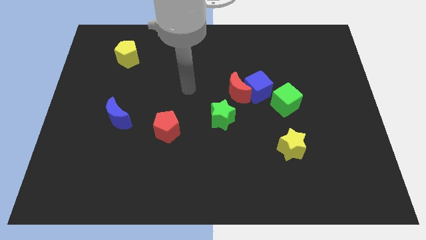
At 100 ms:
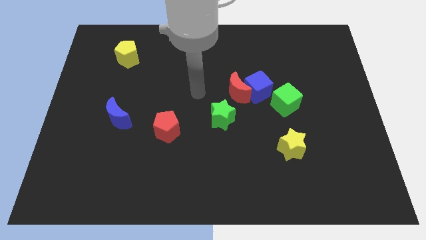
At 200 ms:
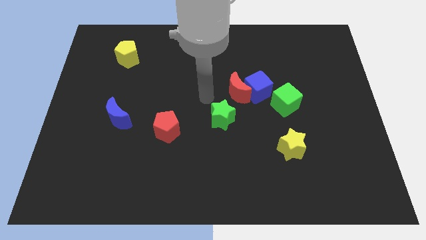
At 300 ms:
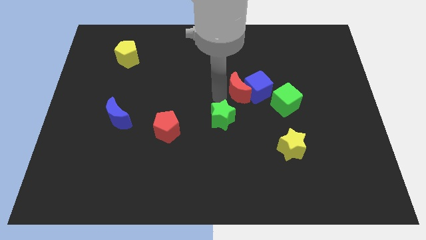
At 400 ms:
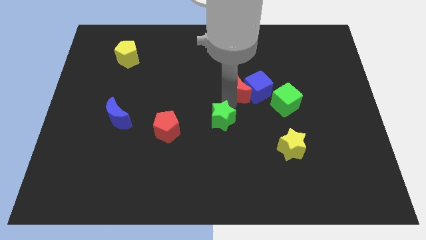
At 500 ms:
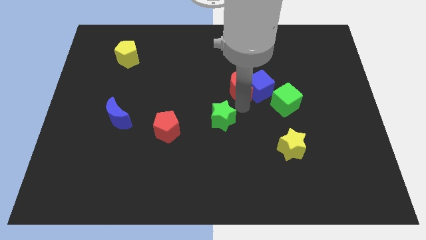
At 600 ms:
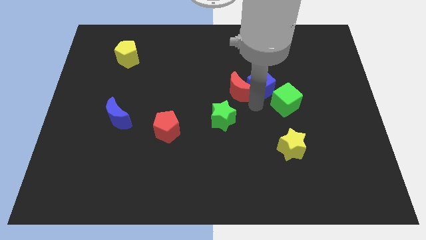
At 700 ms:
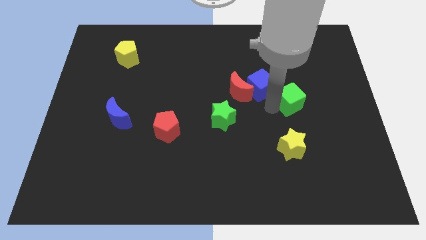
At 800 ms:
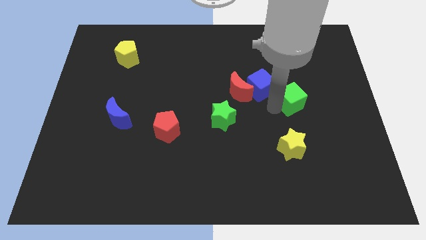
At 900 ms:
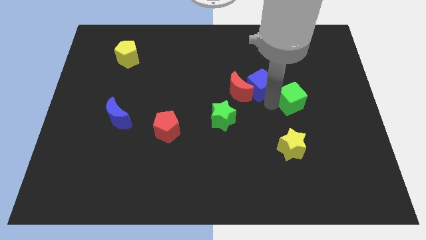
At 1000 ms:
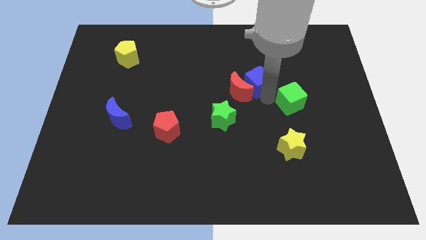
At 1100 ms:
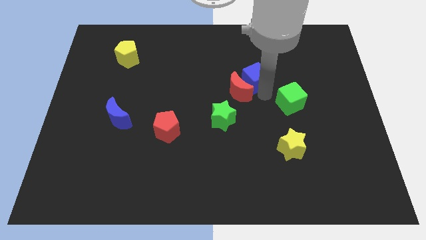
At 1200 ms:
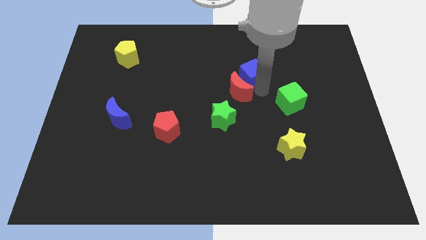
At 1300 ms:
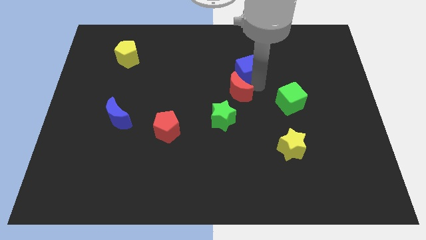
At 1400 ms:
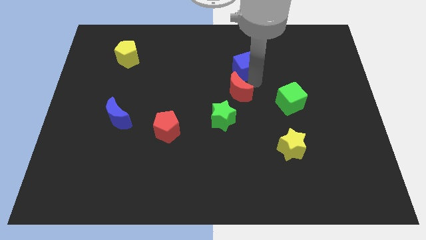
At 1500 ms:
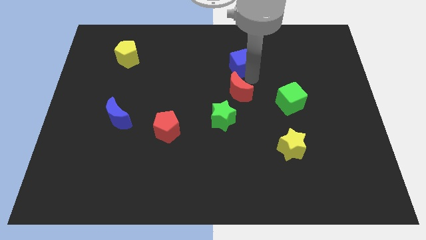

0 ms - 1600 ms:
move the blue cube away from the red moon and green cube

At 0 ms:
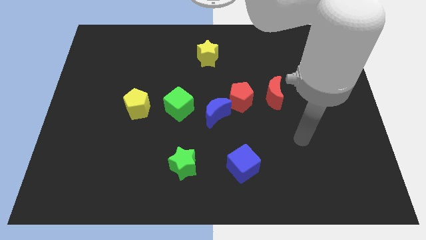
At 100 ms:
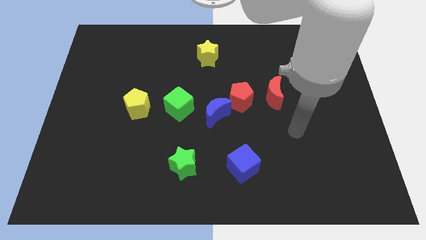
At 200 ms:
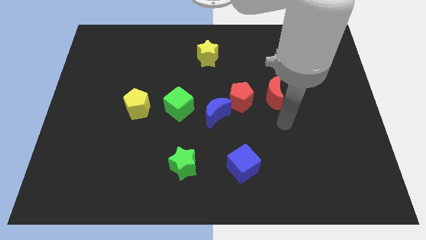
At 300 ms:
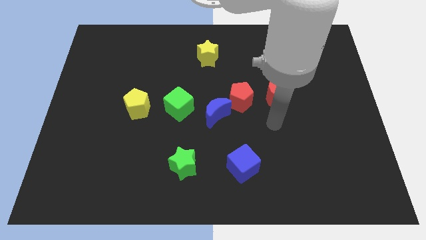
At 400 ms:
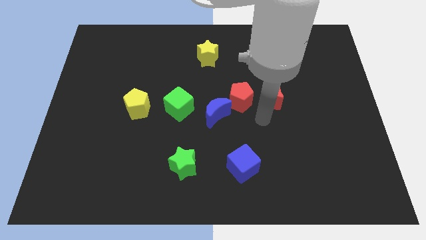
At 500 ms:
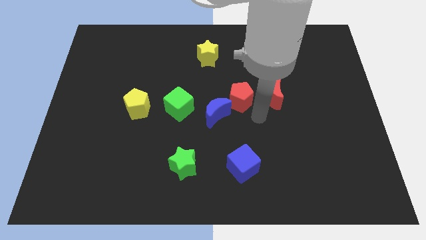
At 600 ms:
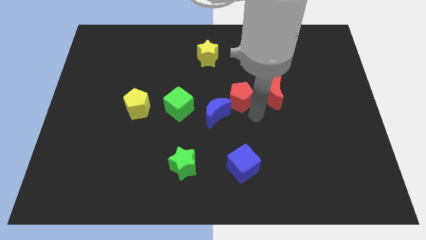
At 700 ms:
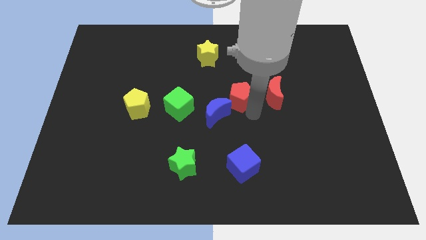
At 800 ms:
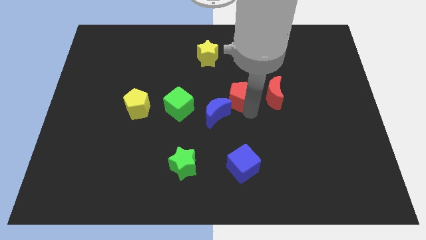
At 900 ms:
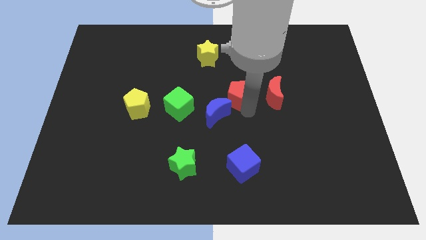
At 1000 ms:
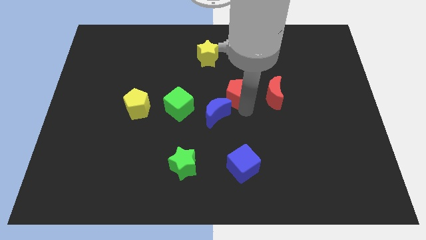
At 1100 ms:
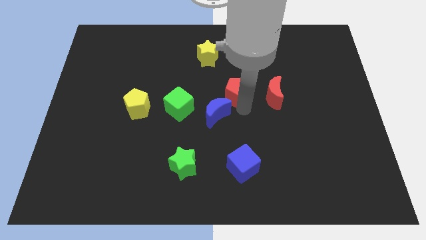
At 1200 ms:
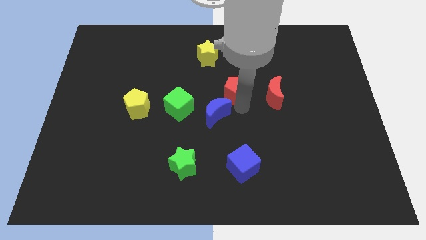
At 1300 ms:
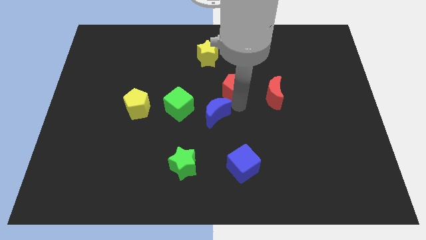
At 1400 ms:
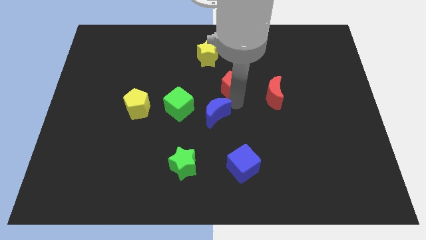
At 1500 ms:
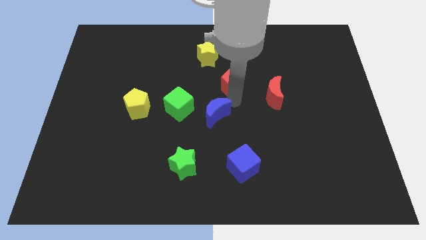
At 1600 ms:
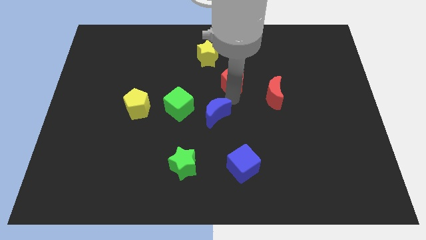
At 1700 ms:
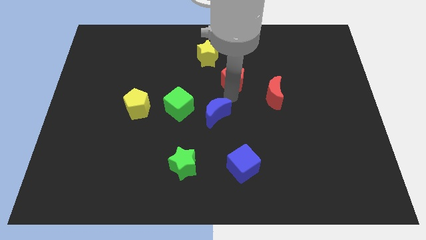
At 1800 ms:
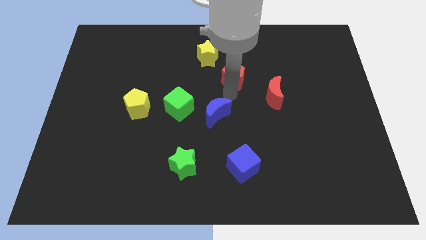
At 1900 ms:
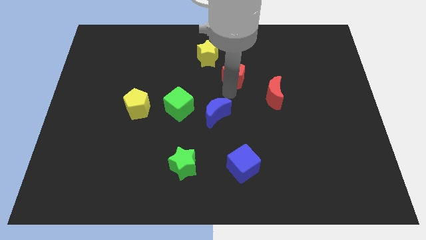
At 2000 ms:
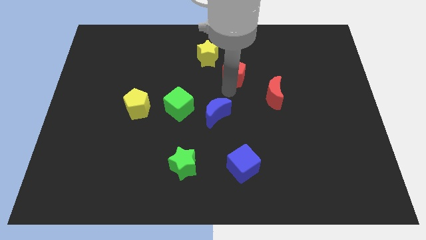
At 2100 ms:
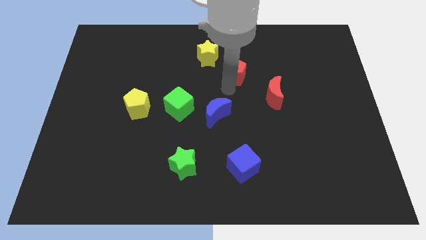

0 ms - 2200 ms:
move the red pentagon away from the blue moon and red moon

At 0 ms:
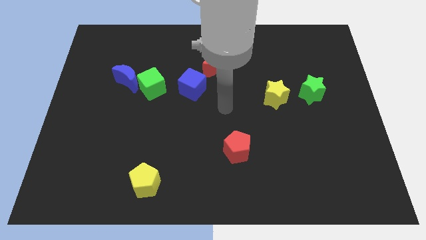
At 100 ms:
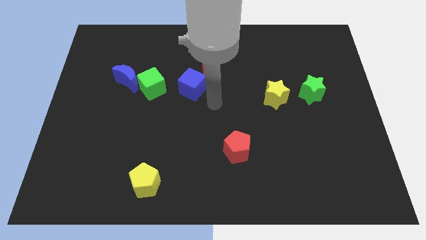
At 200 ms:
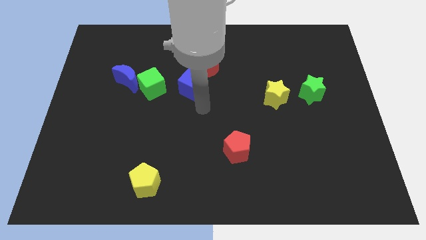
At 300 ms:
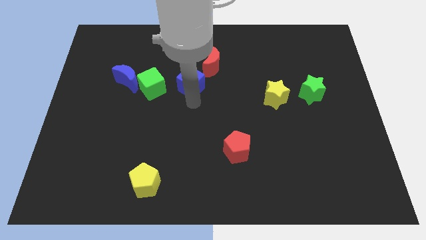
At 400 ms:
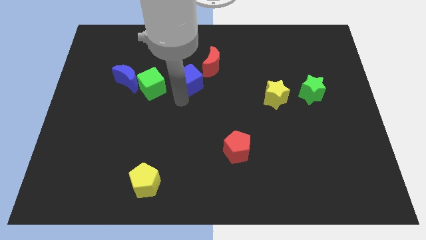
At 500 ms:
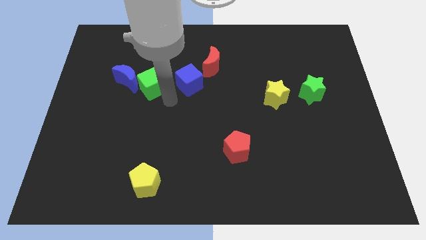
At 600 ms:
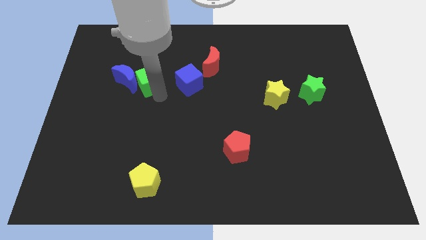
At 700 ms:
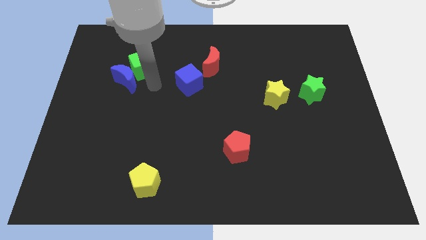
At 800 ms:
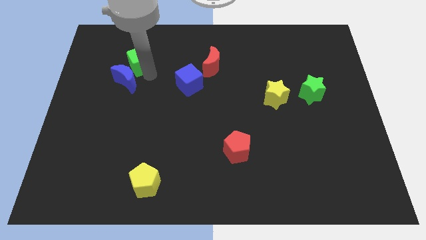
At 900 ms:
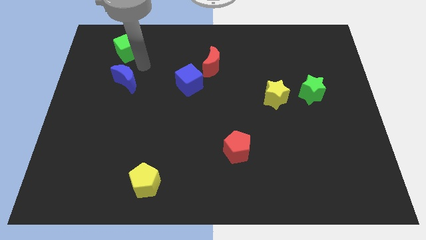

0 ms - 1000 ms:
separate the blue moon from the green cube

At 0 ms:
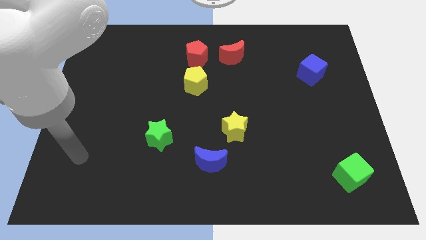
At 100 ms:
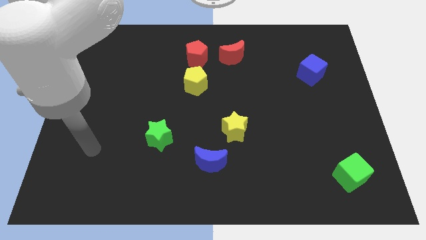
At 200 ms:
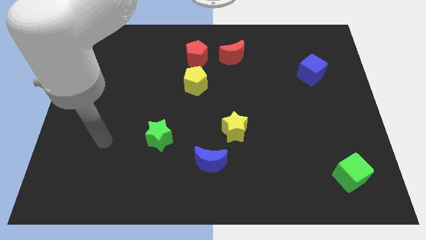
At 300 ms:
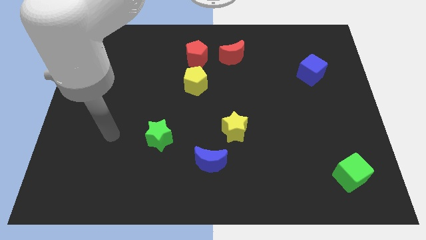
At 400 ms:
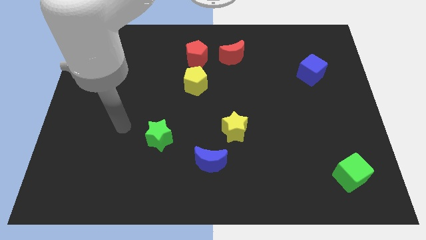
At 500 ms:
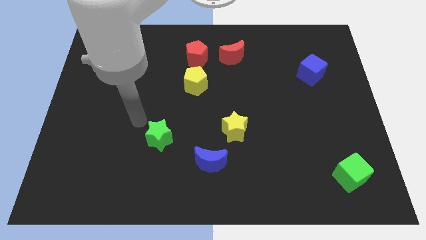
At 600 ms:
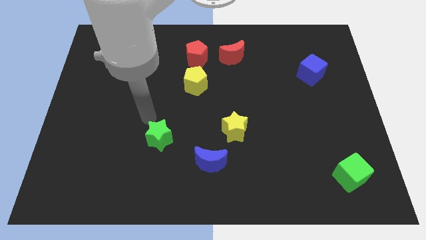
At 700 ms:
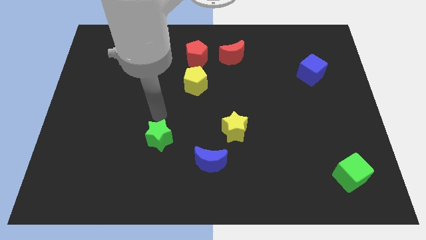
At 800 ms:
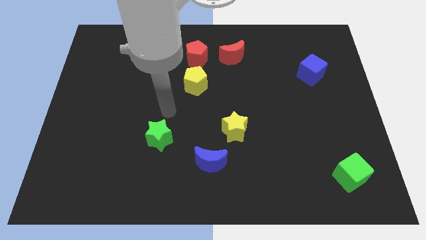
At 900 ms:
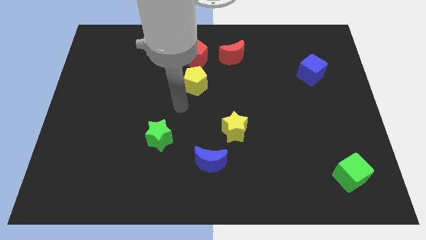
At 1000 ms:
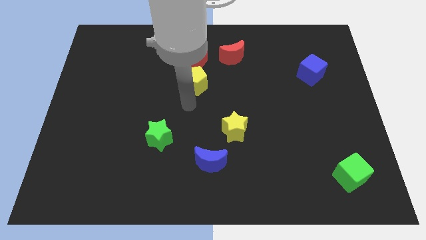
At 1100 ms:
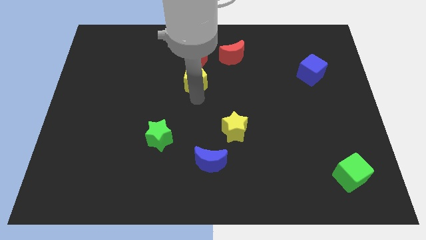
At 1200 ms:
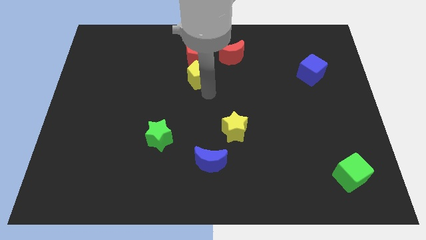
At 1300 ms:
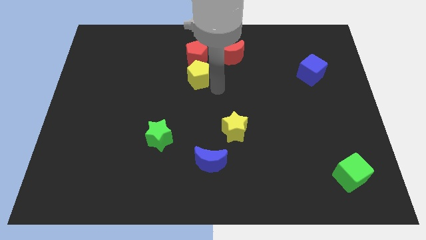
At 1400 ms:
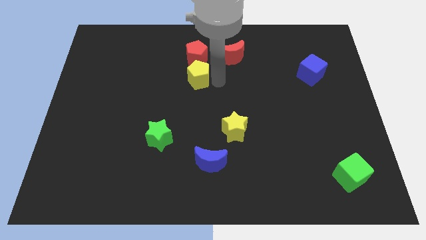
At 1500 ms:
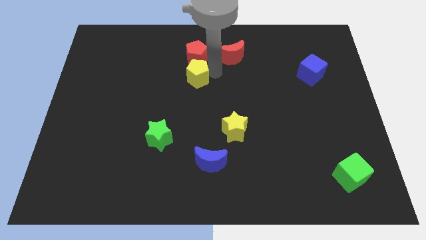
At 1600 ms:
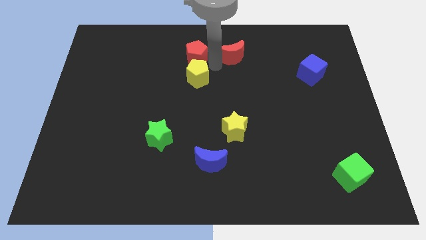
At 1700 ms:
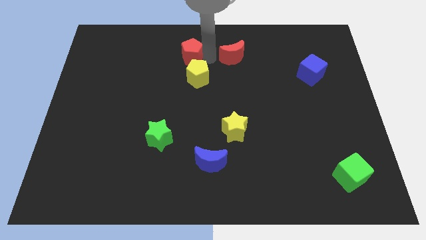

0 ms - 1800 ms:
pull the red moon apart from the red pentagon

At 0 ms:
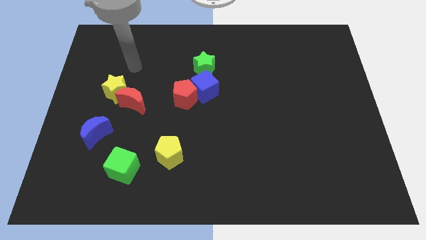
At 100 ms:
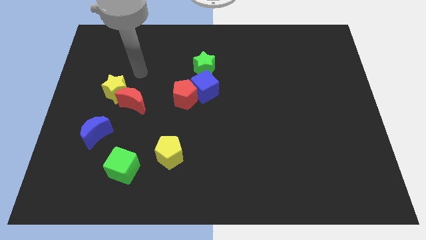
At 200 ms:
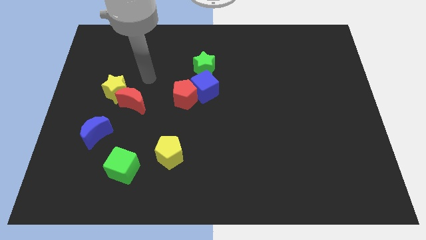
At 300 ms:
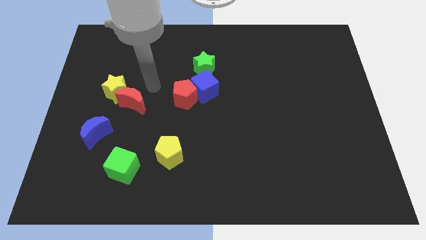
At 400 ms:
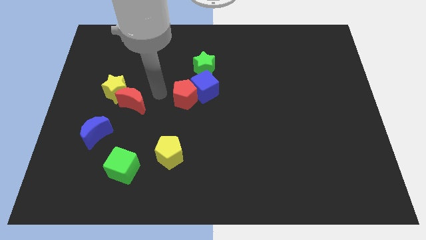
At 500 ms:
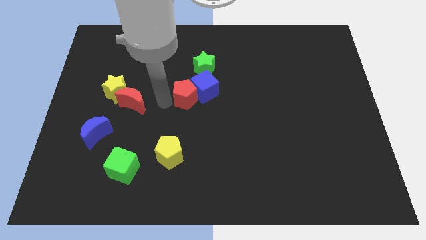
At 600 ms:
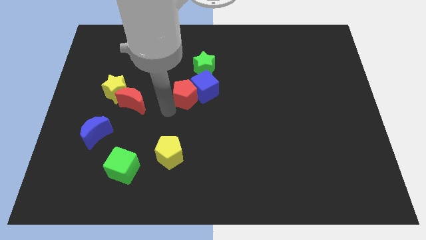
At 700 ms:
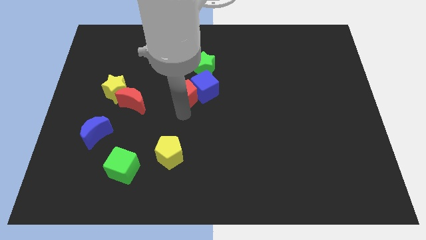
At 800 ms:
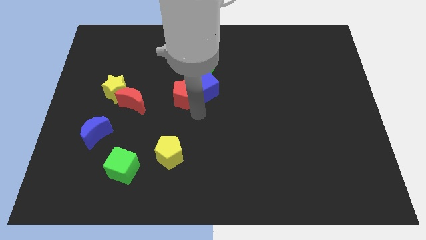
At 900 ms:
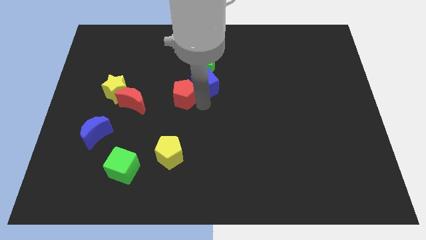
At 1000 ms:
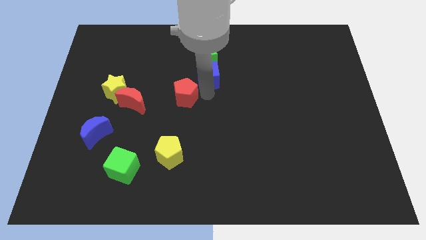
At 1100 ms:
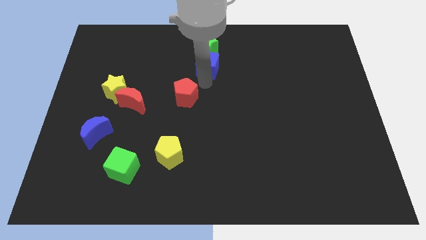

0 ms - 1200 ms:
separate the red pentagon from the blue cube

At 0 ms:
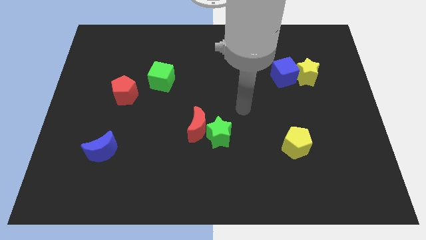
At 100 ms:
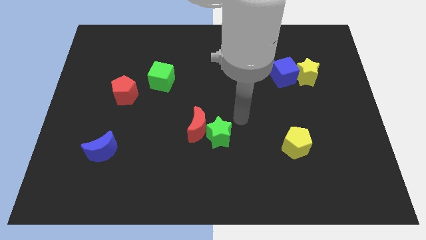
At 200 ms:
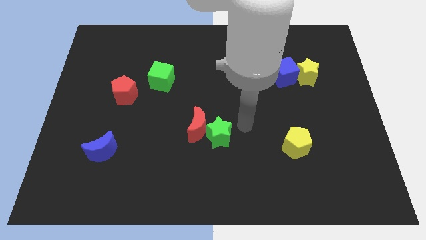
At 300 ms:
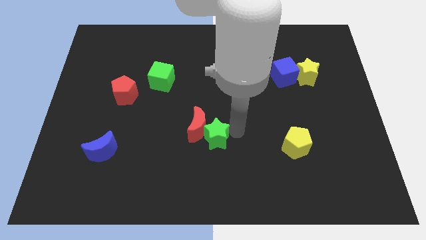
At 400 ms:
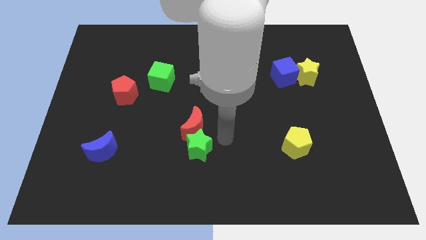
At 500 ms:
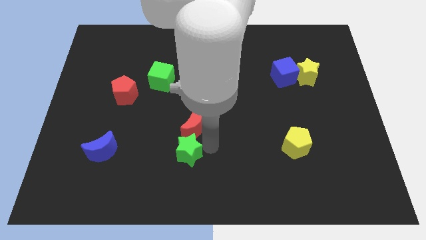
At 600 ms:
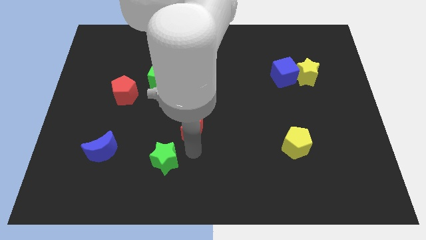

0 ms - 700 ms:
move the red moon away from the green star

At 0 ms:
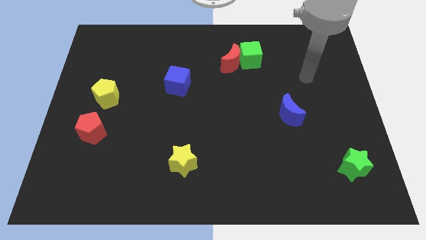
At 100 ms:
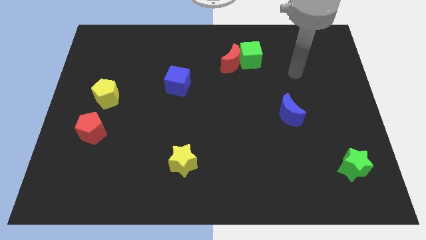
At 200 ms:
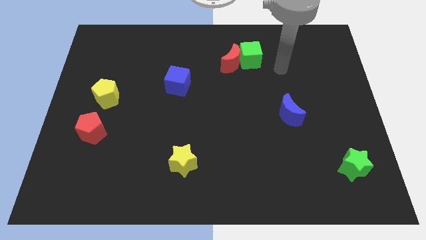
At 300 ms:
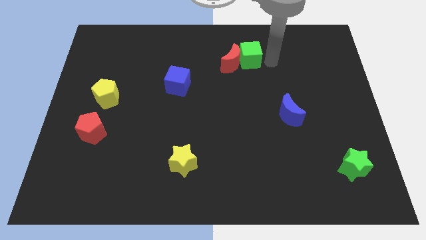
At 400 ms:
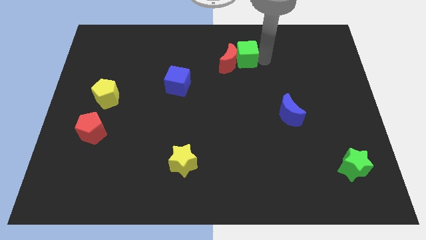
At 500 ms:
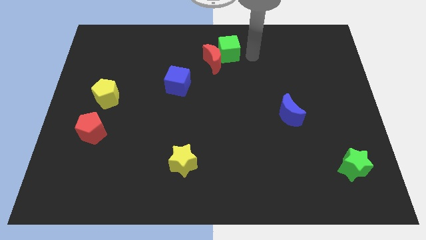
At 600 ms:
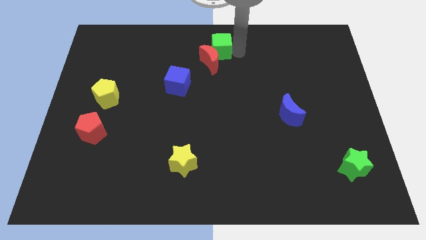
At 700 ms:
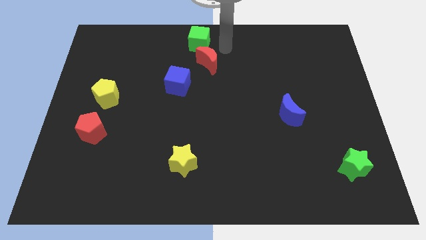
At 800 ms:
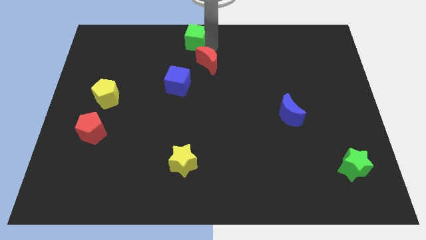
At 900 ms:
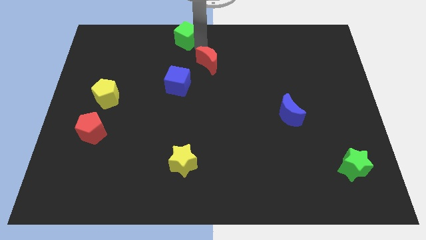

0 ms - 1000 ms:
separate the red moon from the green cube
